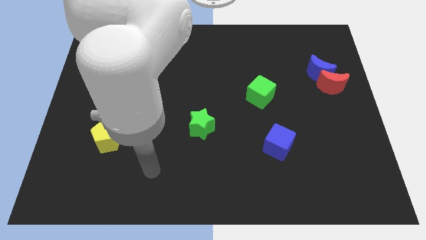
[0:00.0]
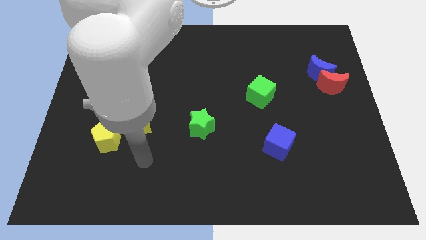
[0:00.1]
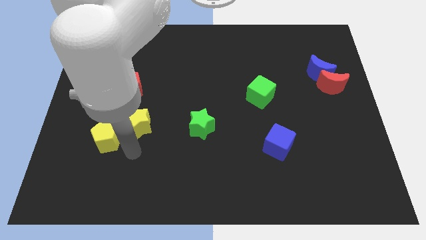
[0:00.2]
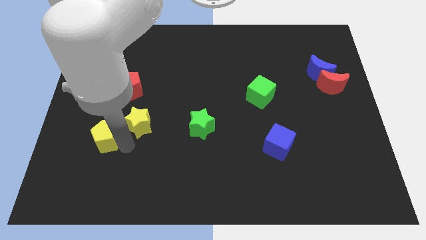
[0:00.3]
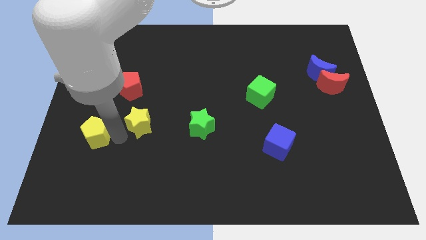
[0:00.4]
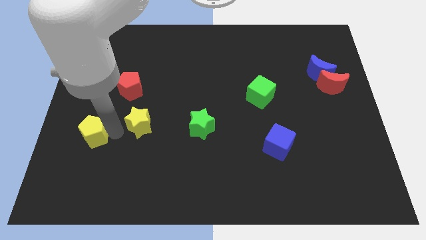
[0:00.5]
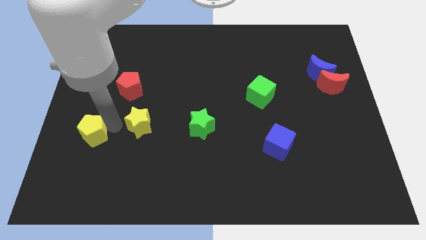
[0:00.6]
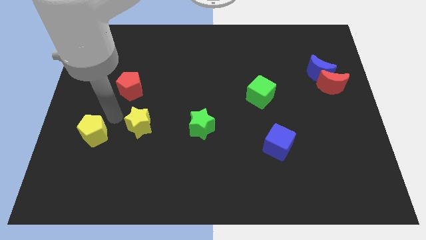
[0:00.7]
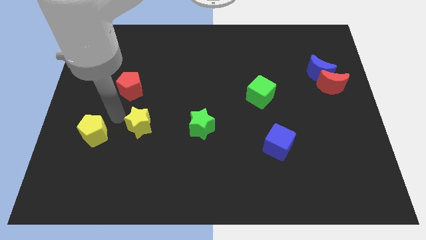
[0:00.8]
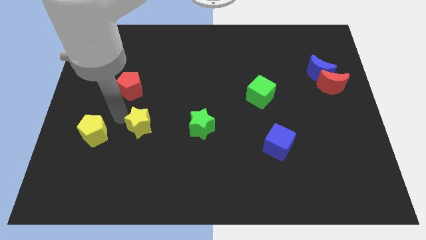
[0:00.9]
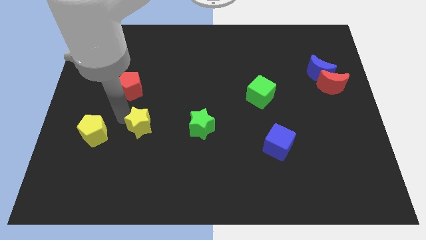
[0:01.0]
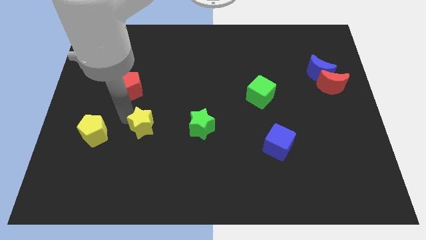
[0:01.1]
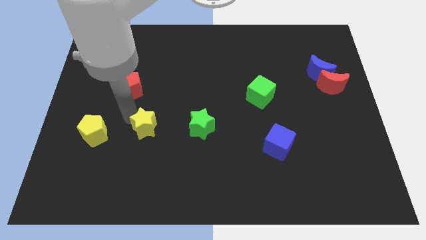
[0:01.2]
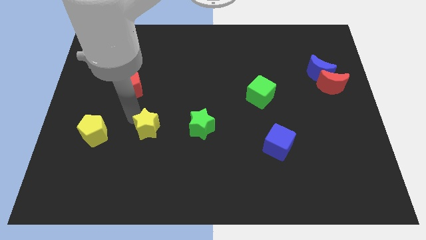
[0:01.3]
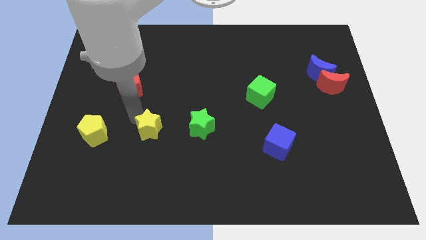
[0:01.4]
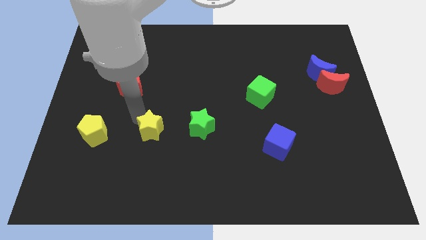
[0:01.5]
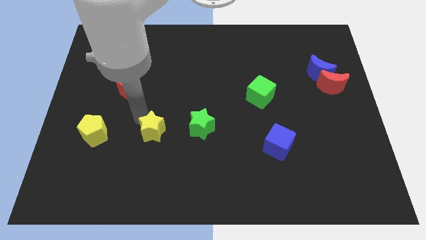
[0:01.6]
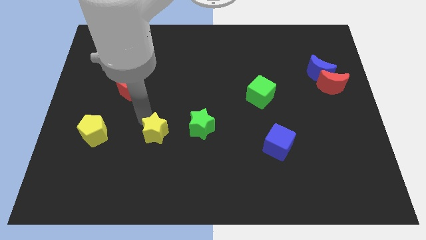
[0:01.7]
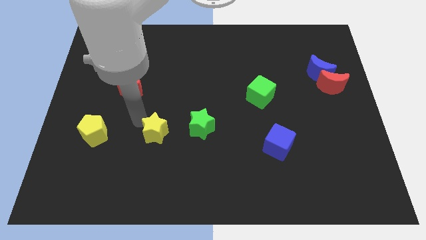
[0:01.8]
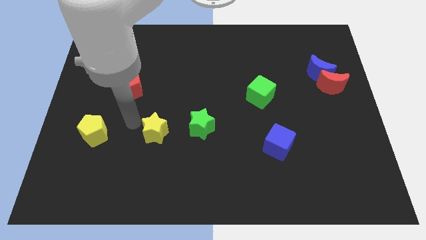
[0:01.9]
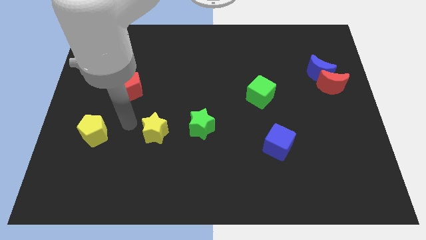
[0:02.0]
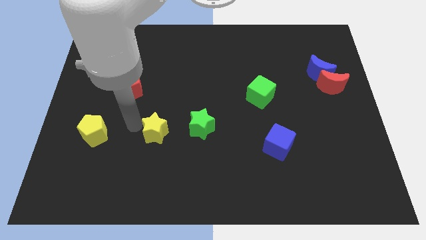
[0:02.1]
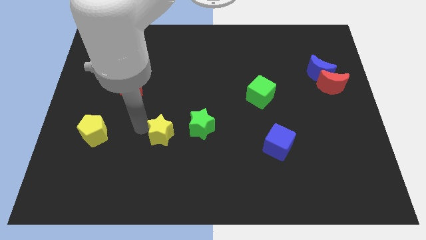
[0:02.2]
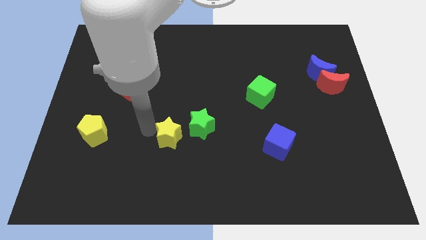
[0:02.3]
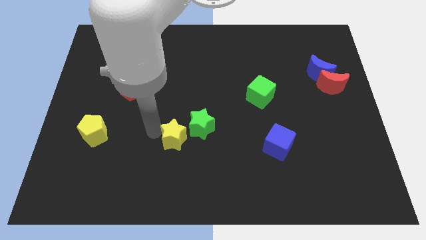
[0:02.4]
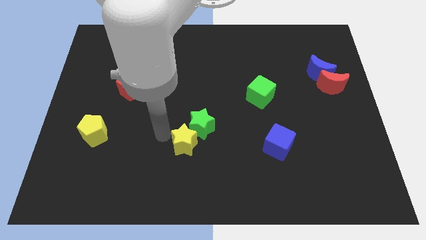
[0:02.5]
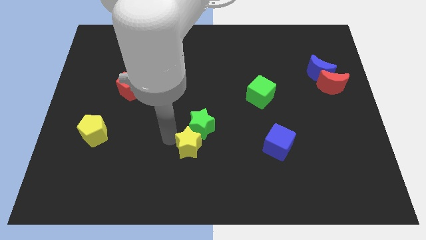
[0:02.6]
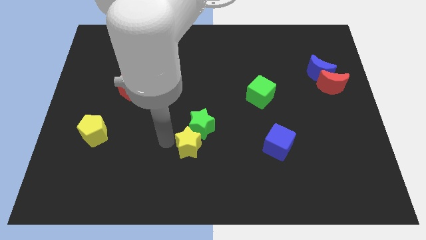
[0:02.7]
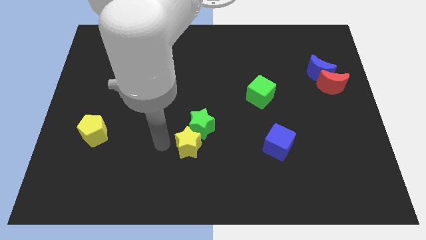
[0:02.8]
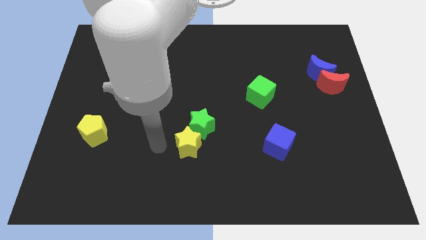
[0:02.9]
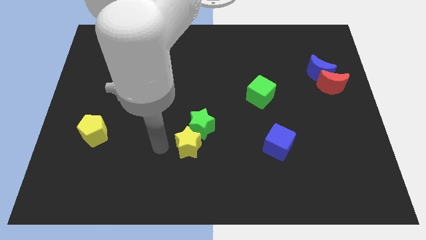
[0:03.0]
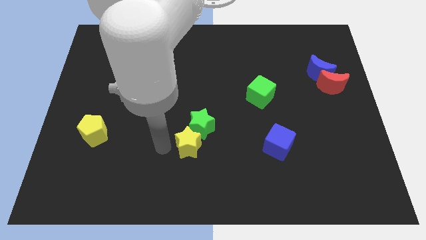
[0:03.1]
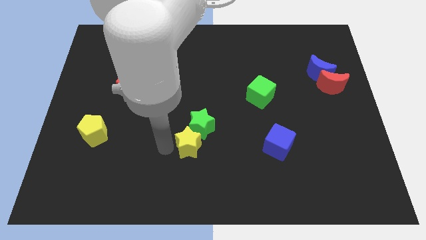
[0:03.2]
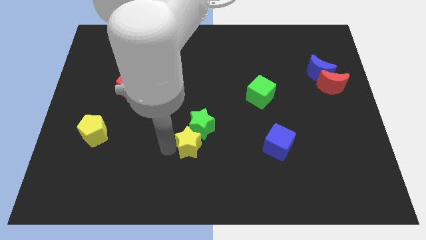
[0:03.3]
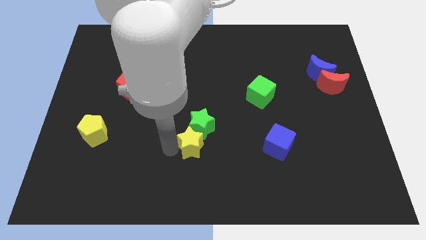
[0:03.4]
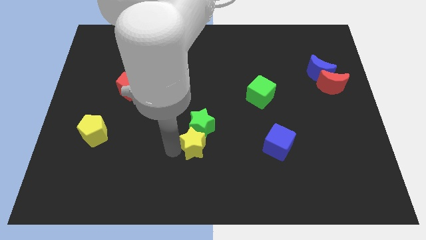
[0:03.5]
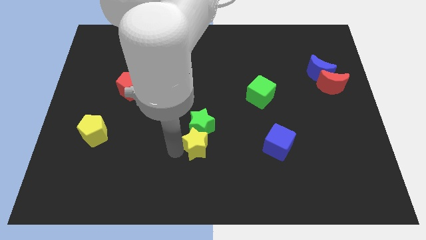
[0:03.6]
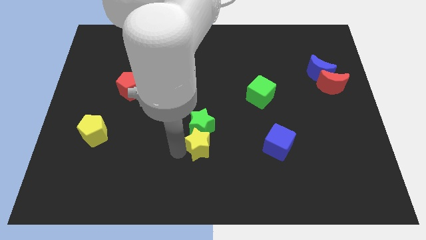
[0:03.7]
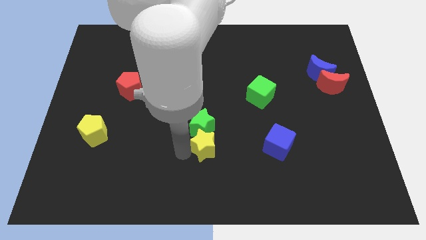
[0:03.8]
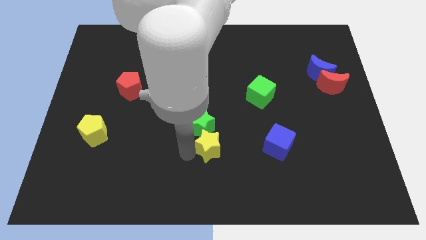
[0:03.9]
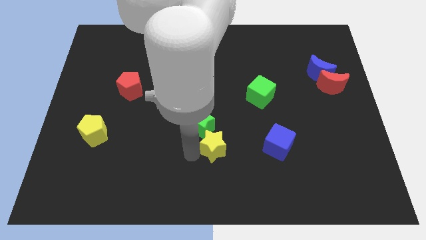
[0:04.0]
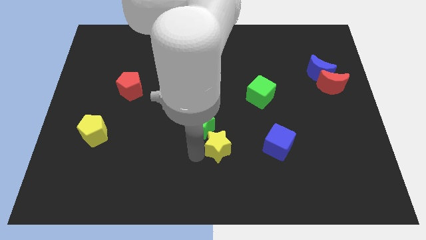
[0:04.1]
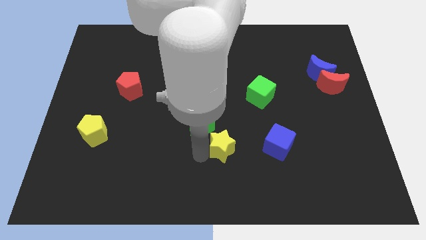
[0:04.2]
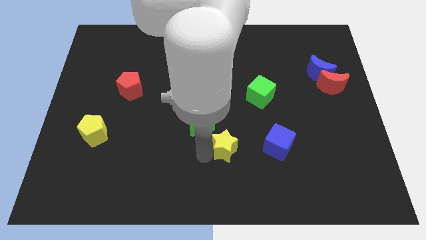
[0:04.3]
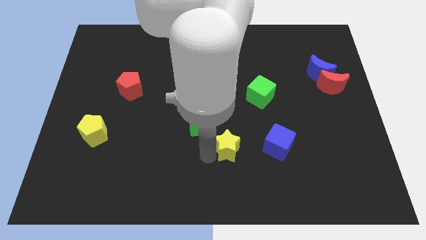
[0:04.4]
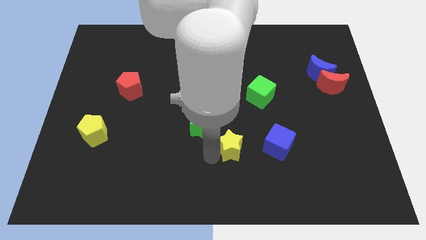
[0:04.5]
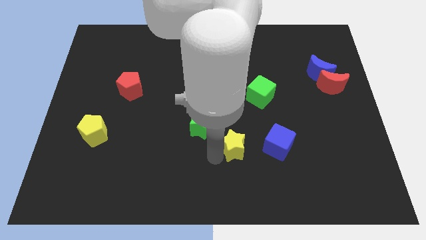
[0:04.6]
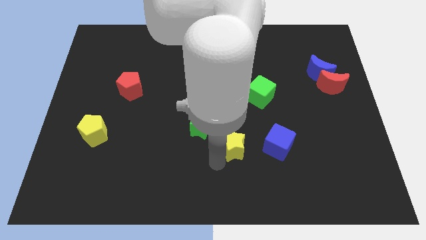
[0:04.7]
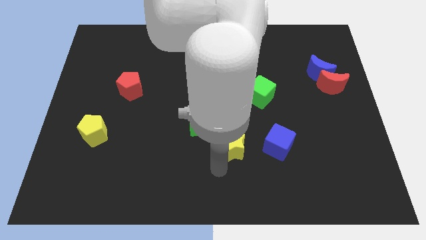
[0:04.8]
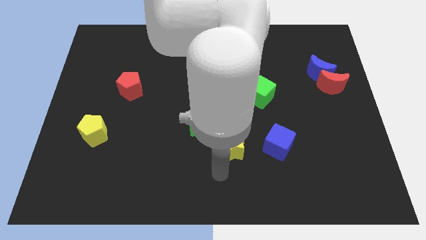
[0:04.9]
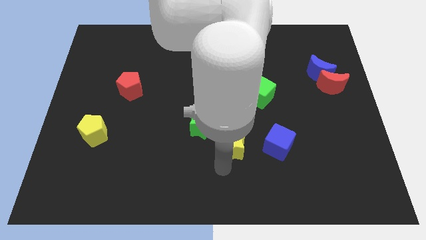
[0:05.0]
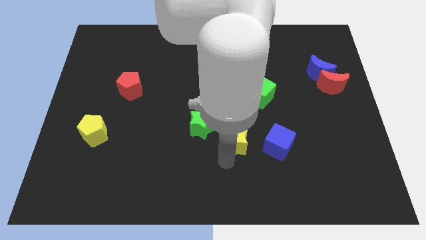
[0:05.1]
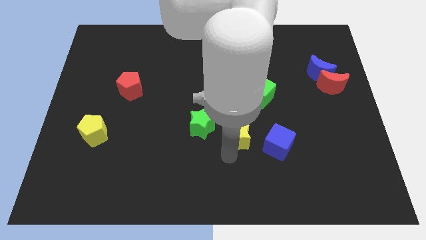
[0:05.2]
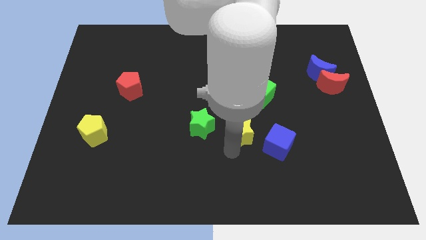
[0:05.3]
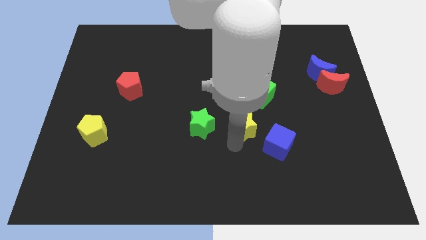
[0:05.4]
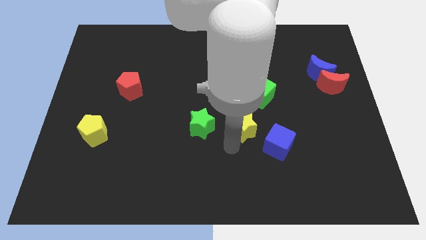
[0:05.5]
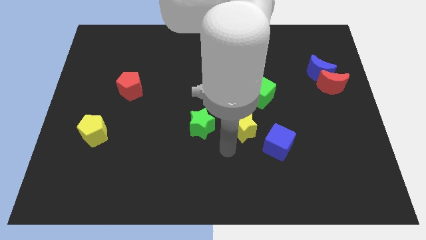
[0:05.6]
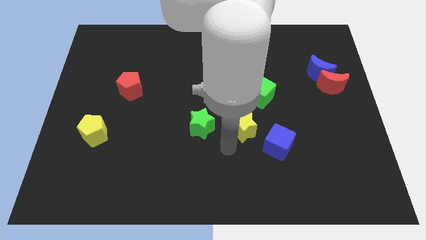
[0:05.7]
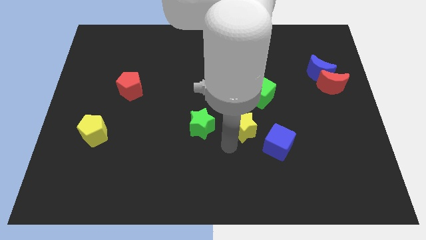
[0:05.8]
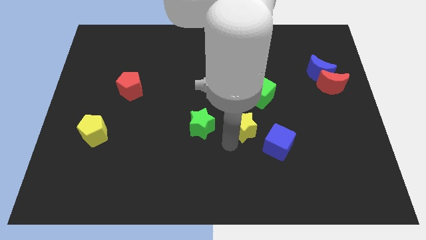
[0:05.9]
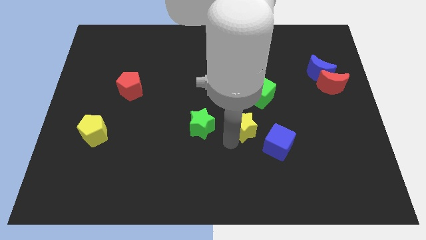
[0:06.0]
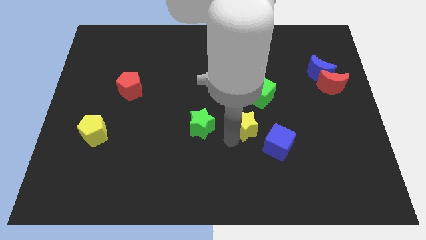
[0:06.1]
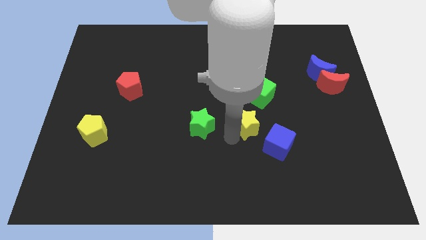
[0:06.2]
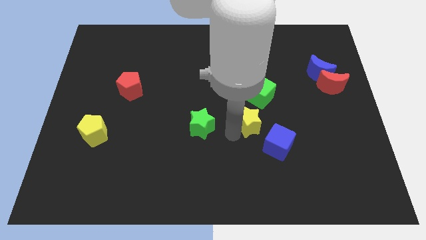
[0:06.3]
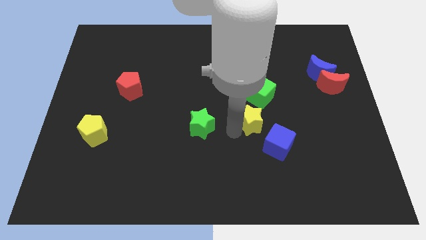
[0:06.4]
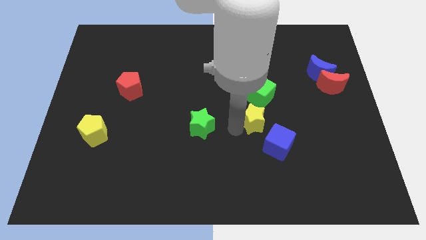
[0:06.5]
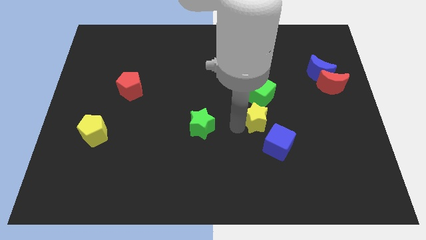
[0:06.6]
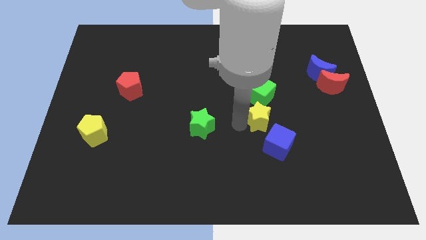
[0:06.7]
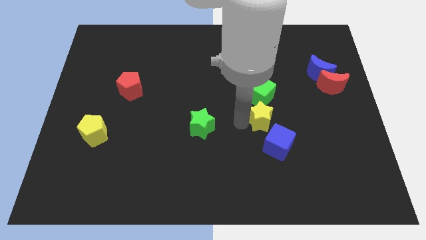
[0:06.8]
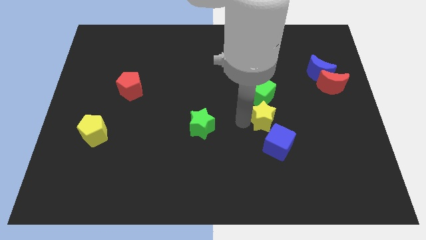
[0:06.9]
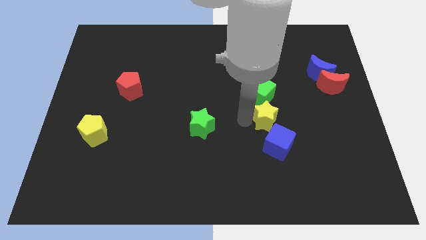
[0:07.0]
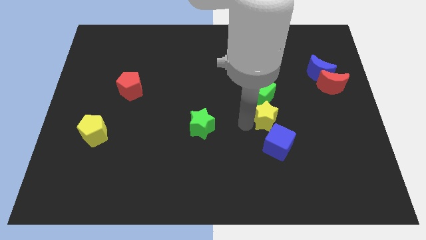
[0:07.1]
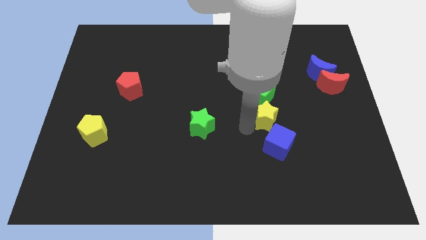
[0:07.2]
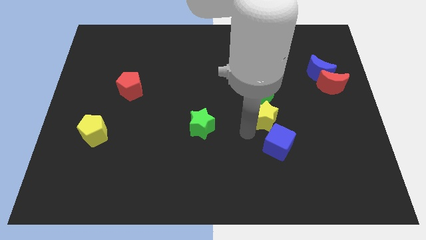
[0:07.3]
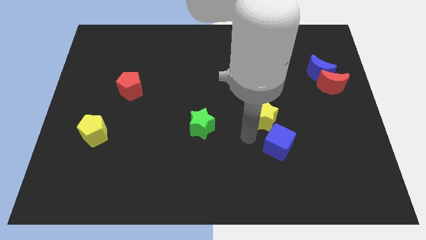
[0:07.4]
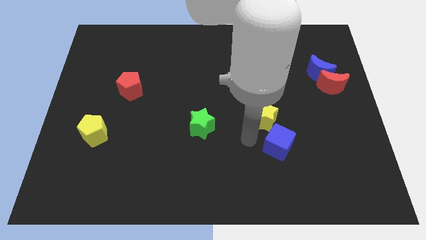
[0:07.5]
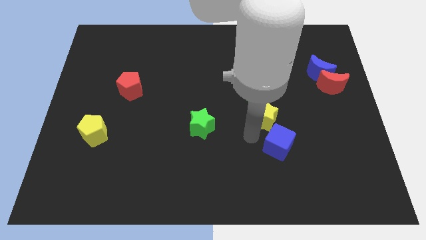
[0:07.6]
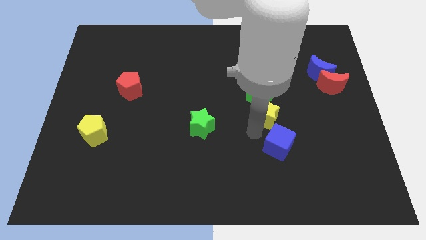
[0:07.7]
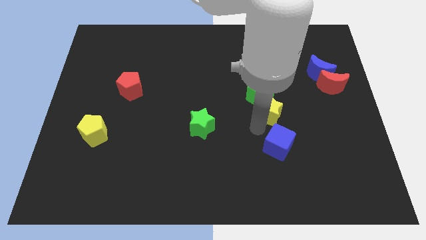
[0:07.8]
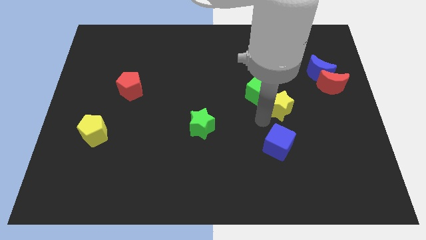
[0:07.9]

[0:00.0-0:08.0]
push the yellow star to the right side of the green cube
